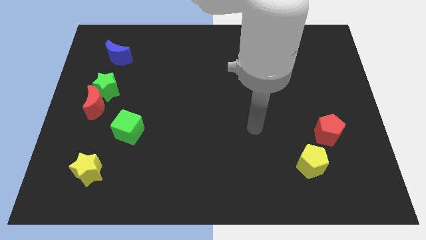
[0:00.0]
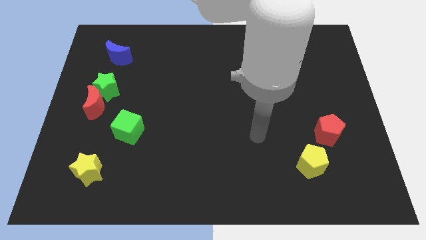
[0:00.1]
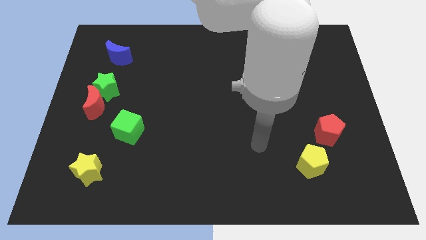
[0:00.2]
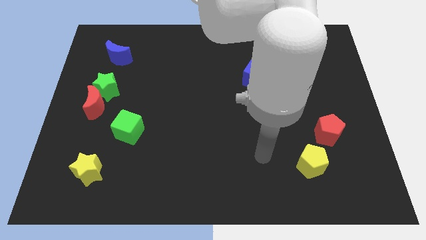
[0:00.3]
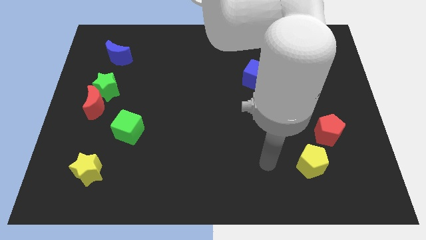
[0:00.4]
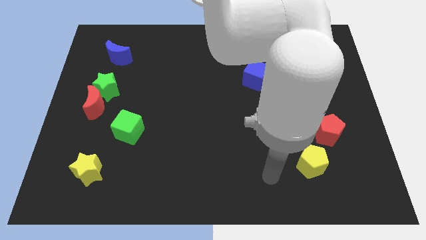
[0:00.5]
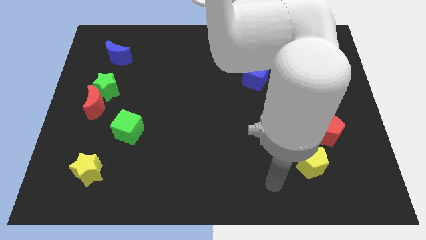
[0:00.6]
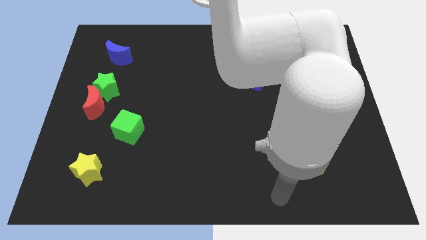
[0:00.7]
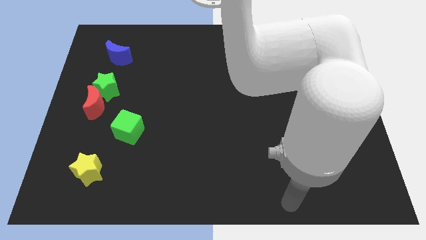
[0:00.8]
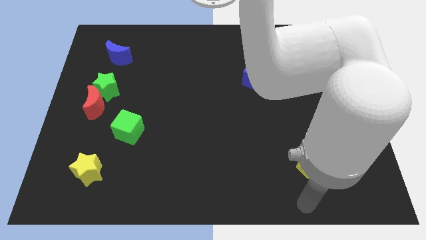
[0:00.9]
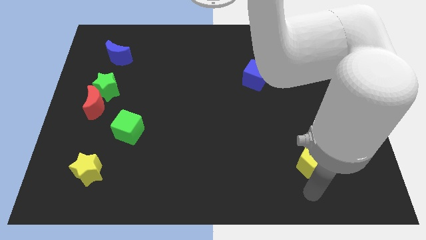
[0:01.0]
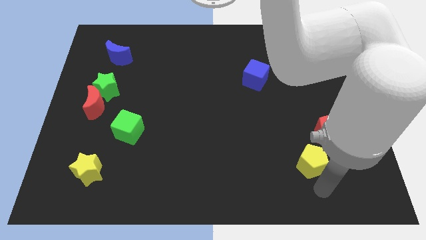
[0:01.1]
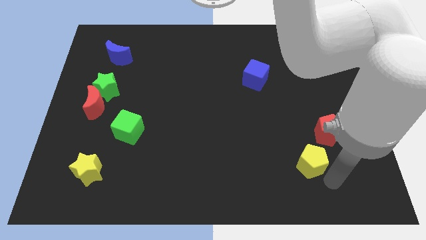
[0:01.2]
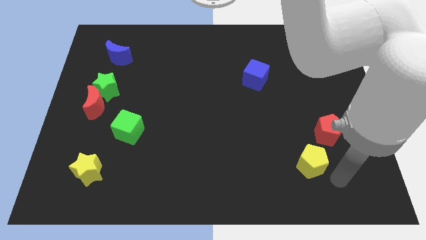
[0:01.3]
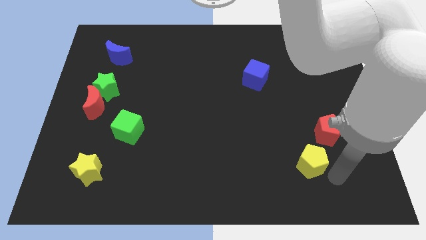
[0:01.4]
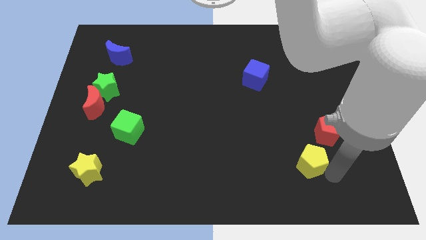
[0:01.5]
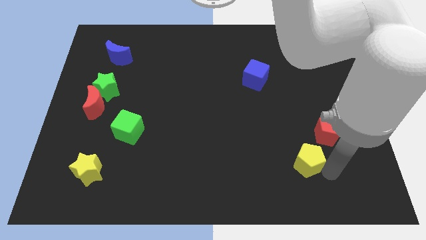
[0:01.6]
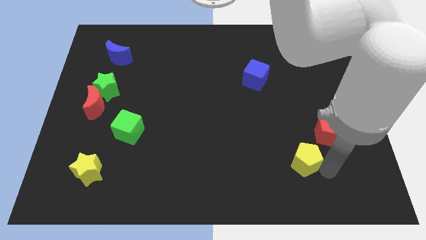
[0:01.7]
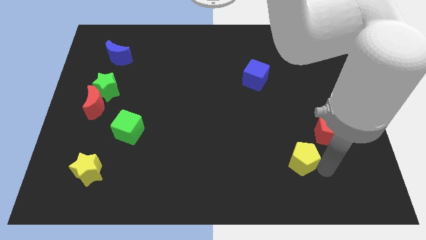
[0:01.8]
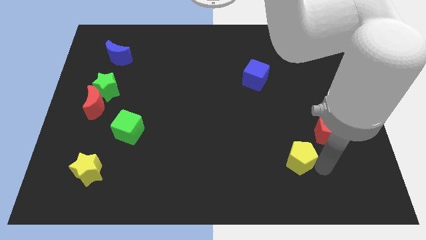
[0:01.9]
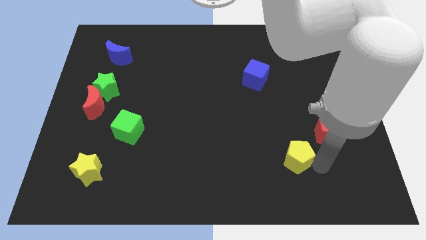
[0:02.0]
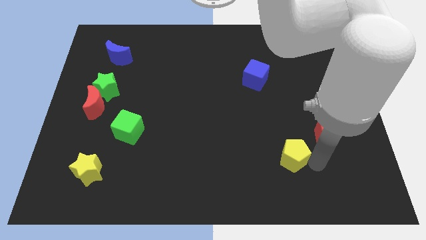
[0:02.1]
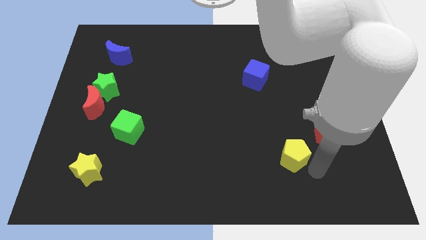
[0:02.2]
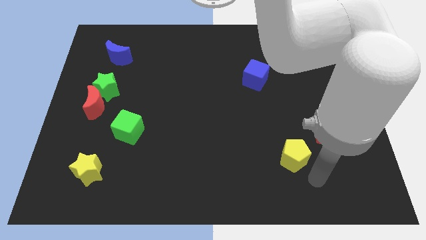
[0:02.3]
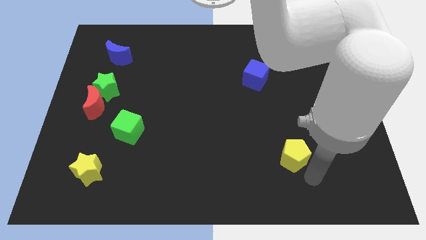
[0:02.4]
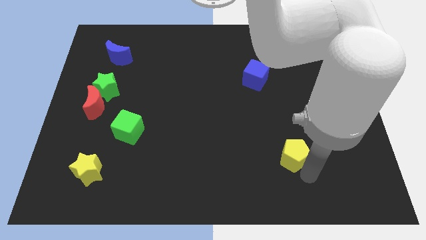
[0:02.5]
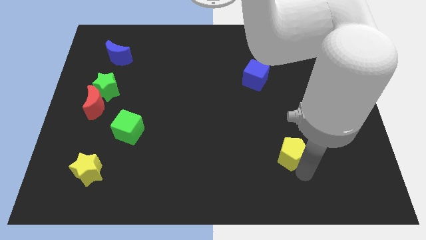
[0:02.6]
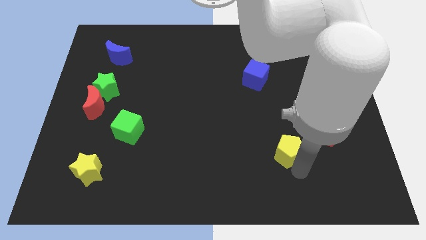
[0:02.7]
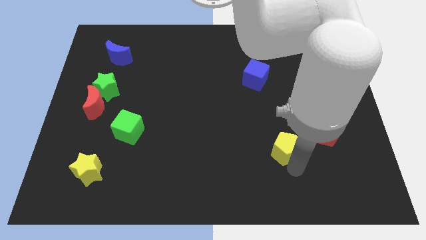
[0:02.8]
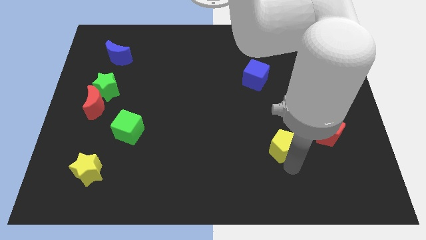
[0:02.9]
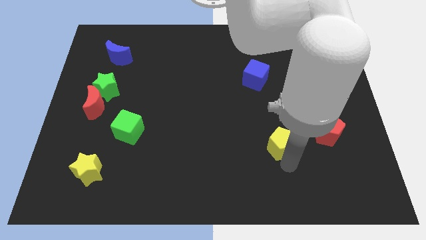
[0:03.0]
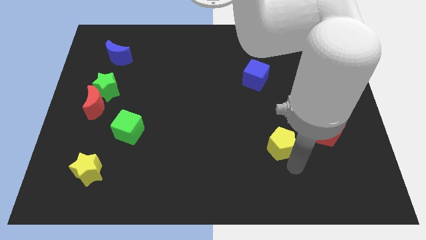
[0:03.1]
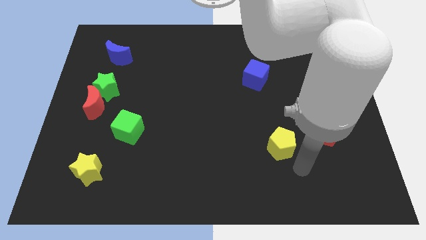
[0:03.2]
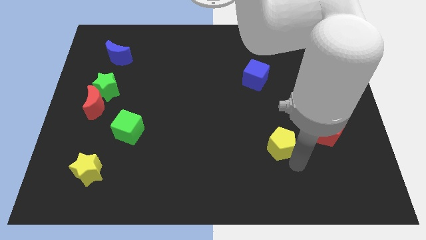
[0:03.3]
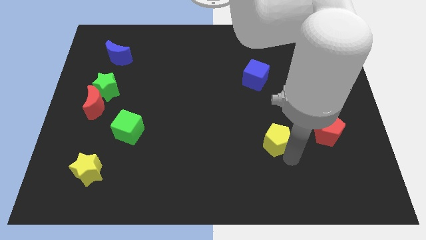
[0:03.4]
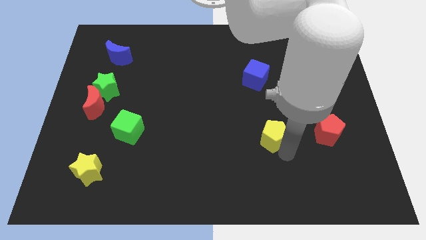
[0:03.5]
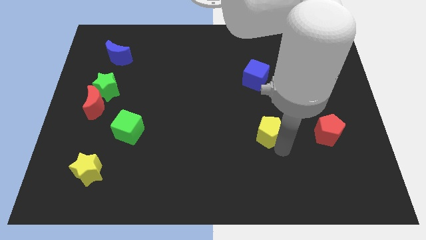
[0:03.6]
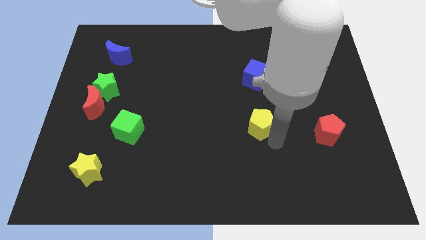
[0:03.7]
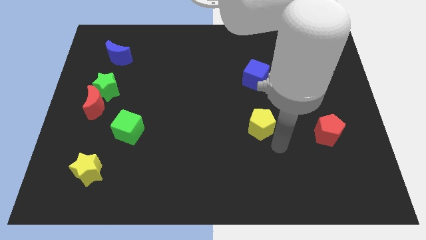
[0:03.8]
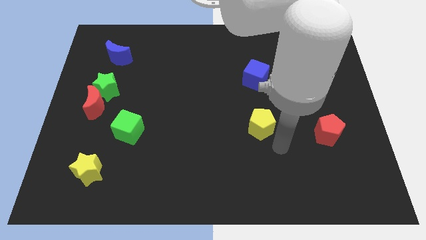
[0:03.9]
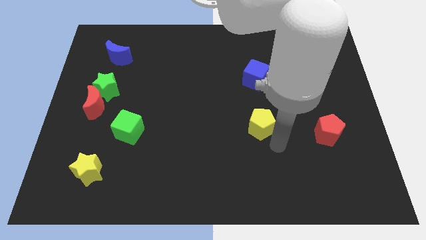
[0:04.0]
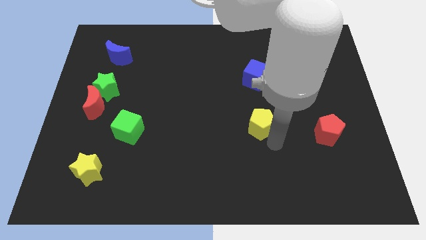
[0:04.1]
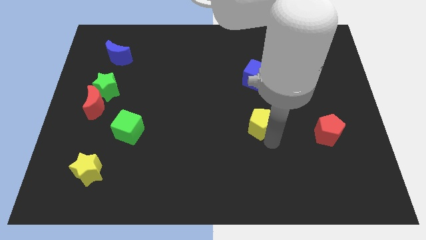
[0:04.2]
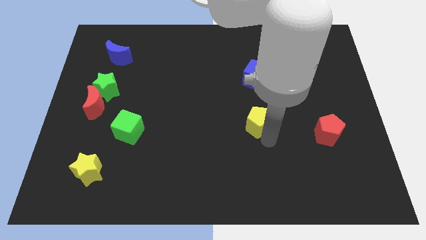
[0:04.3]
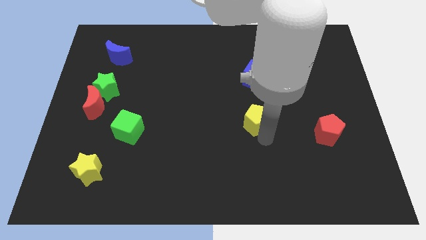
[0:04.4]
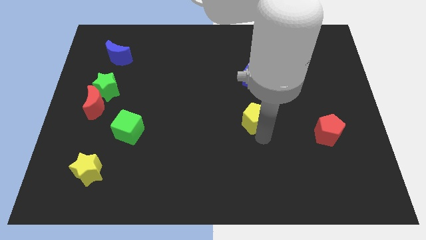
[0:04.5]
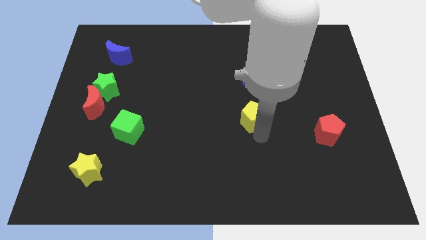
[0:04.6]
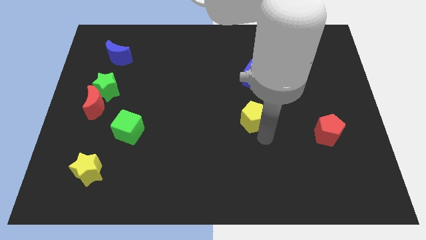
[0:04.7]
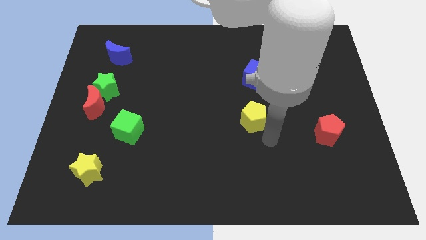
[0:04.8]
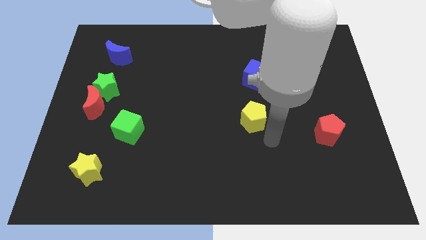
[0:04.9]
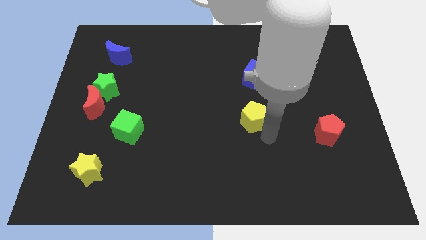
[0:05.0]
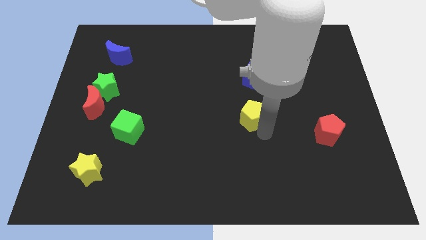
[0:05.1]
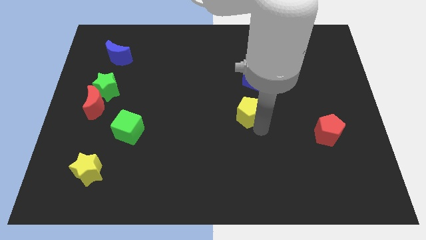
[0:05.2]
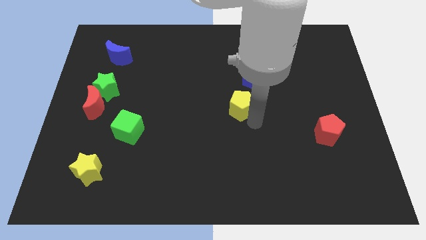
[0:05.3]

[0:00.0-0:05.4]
slide the yellow pentagon up and then left

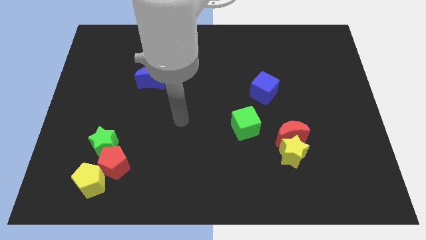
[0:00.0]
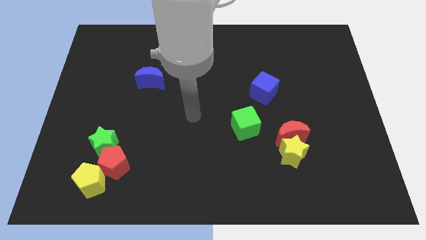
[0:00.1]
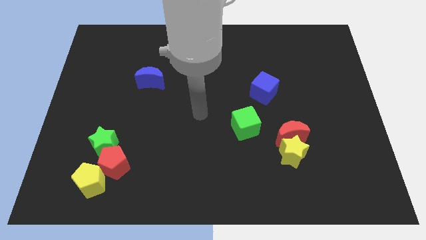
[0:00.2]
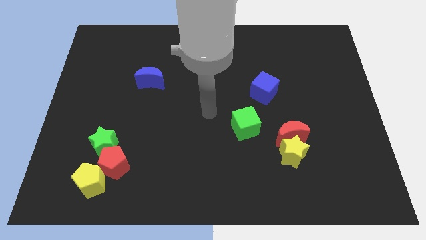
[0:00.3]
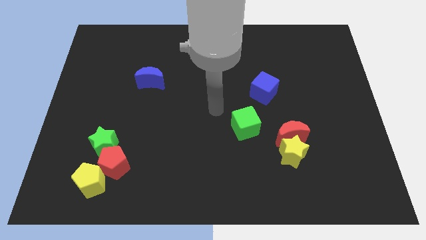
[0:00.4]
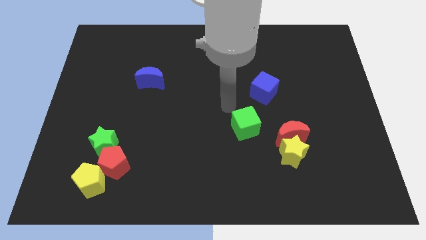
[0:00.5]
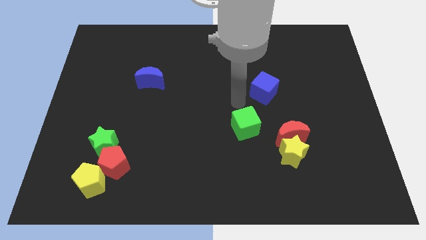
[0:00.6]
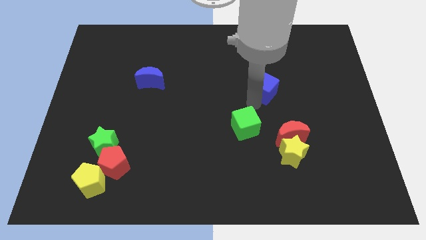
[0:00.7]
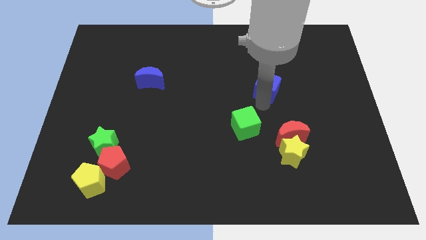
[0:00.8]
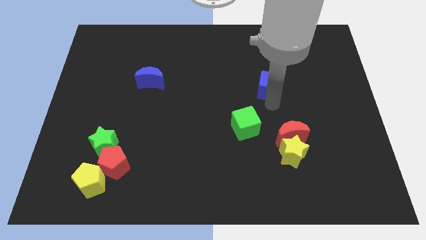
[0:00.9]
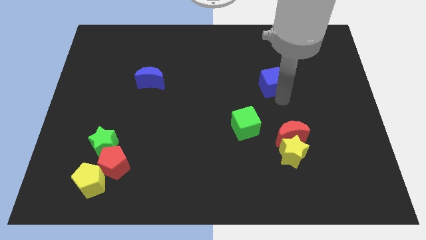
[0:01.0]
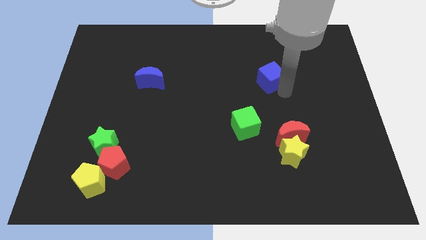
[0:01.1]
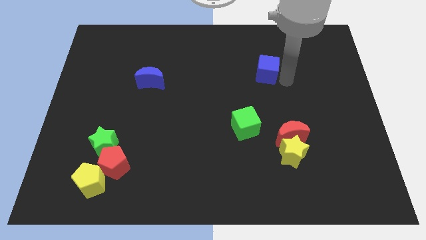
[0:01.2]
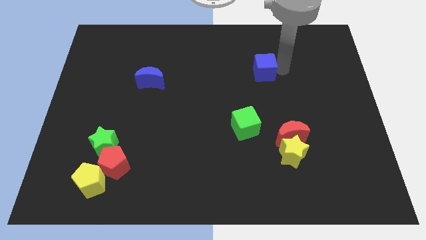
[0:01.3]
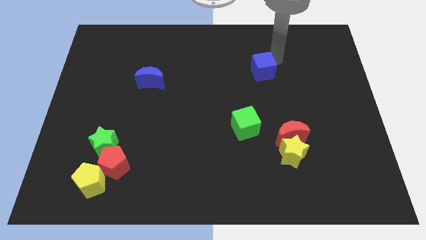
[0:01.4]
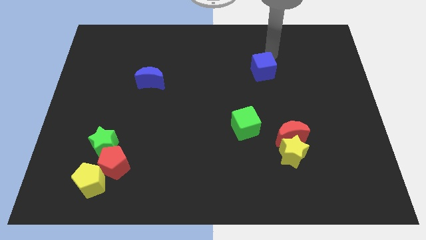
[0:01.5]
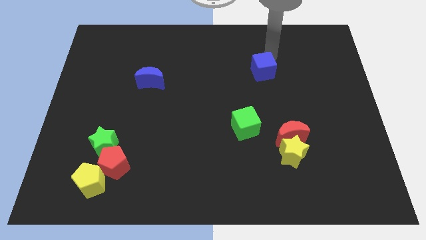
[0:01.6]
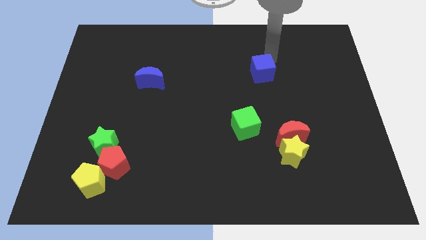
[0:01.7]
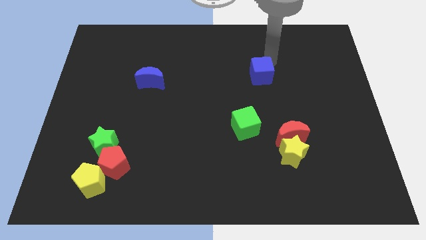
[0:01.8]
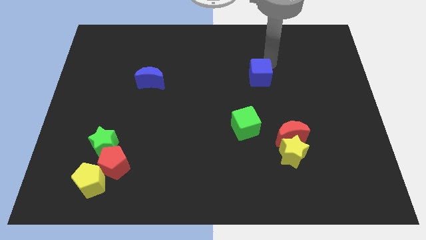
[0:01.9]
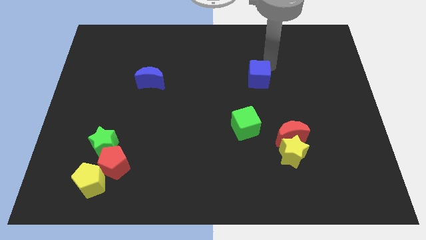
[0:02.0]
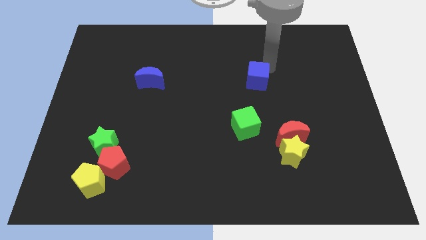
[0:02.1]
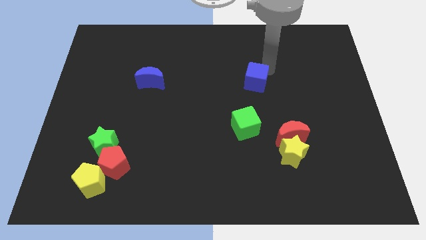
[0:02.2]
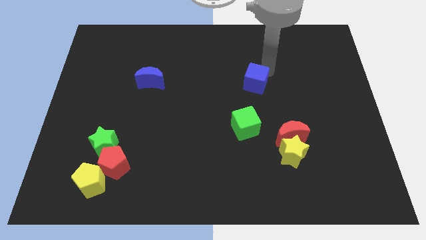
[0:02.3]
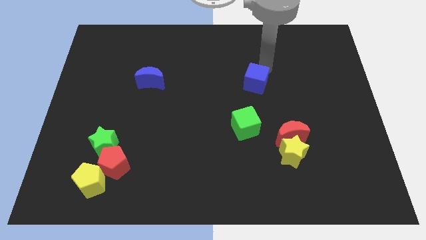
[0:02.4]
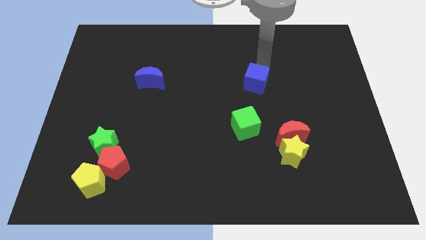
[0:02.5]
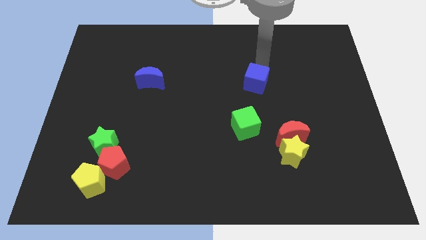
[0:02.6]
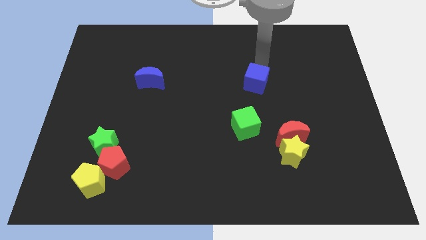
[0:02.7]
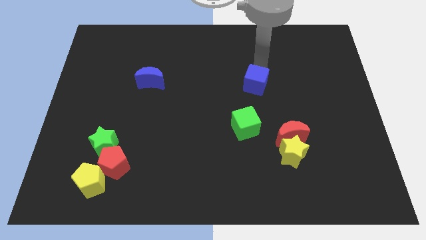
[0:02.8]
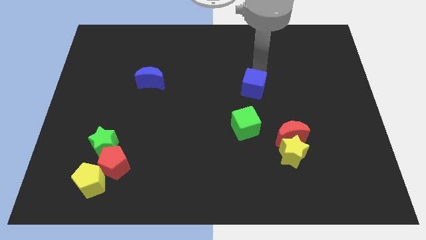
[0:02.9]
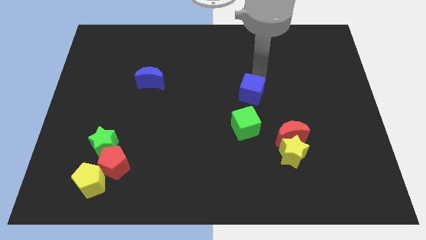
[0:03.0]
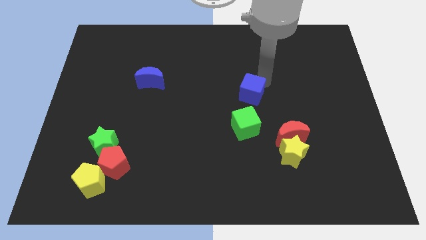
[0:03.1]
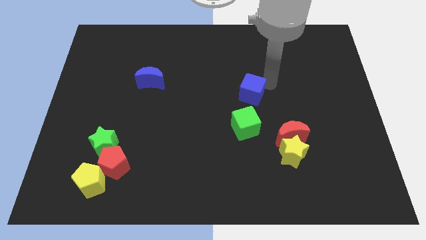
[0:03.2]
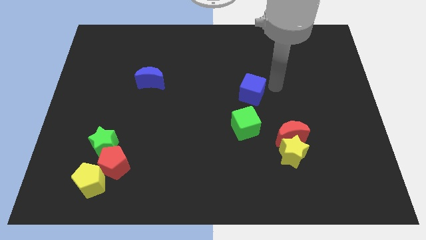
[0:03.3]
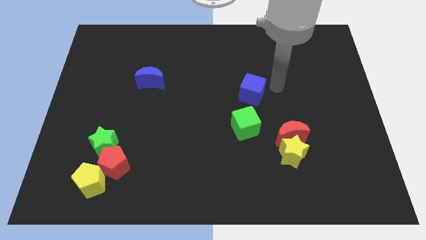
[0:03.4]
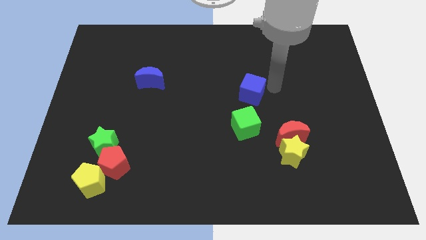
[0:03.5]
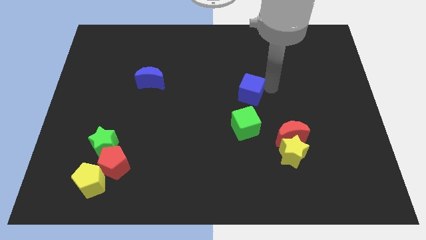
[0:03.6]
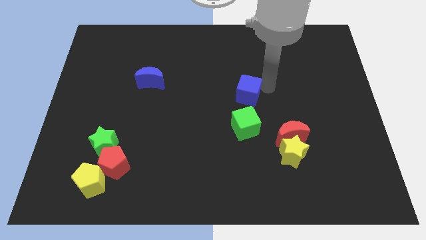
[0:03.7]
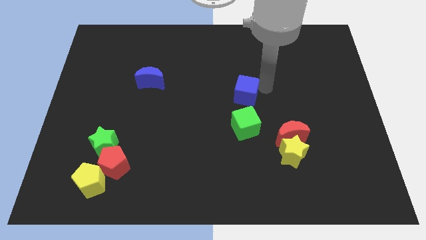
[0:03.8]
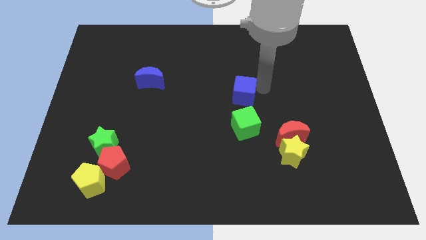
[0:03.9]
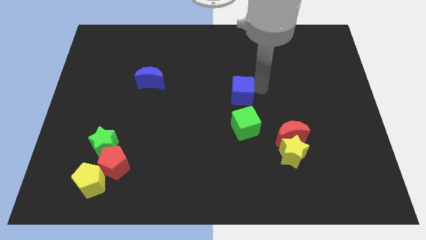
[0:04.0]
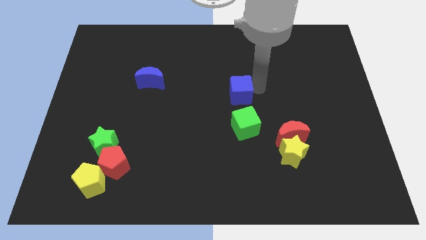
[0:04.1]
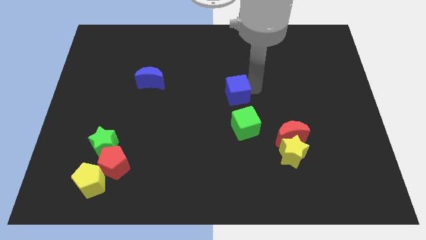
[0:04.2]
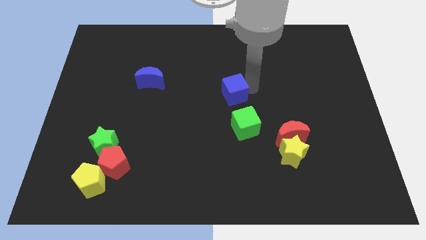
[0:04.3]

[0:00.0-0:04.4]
move the blue cube a little bit to the left
